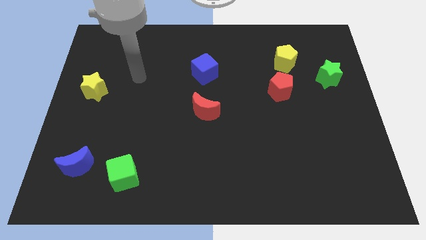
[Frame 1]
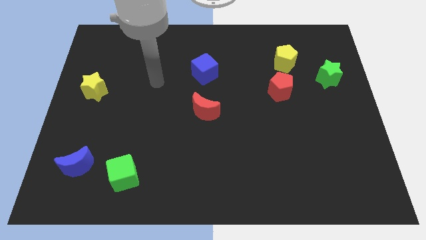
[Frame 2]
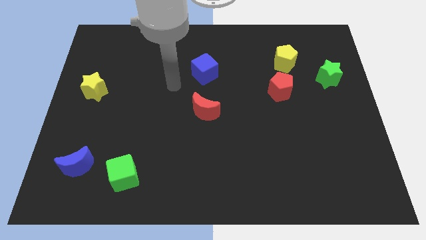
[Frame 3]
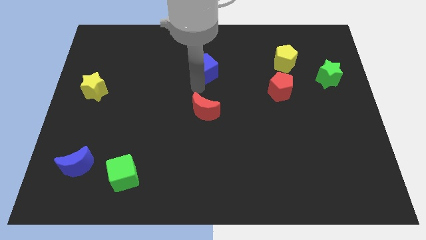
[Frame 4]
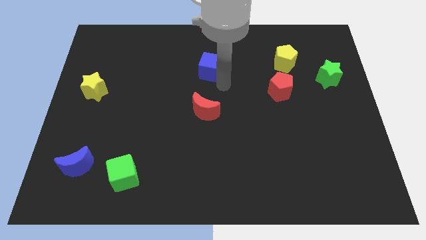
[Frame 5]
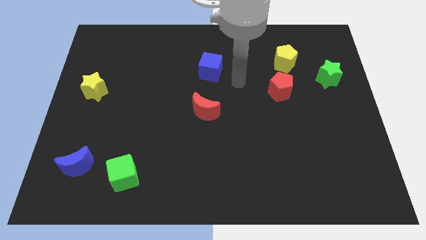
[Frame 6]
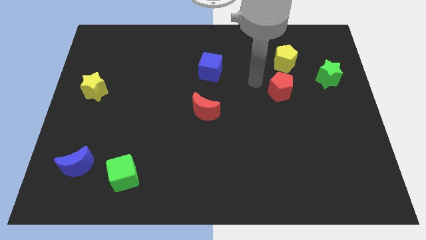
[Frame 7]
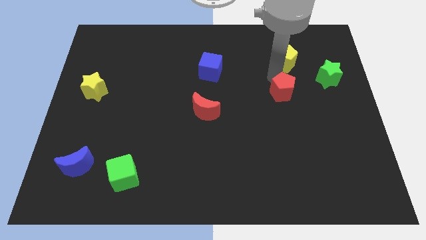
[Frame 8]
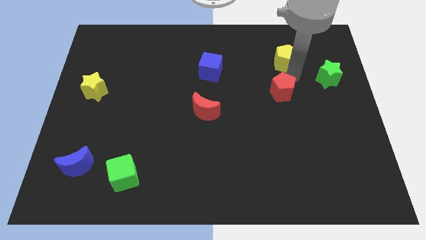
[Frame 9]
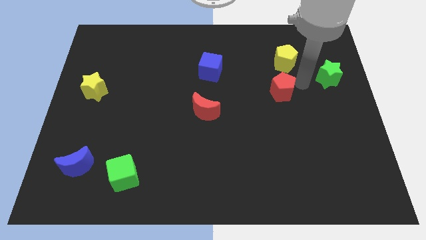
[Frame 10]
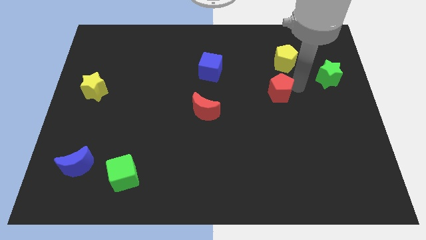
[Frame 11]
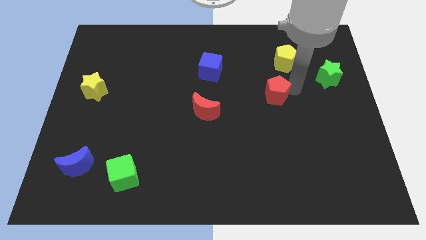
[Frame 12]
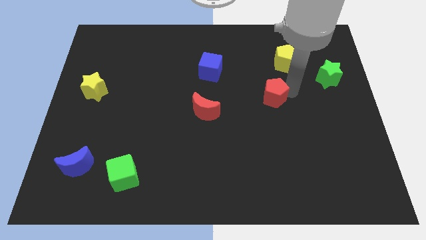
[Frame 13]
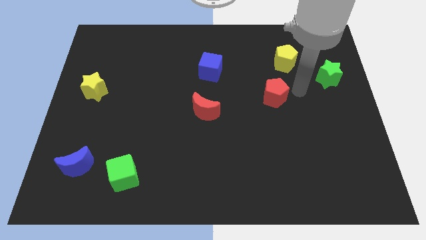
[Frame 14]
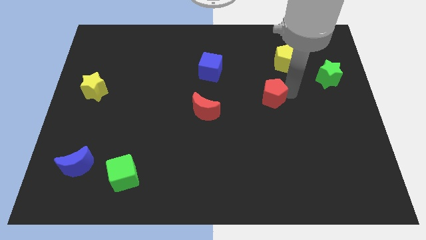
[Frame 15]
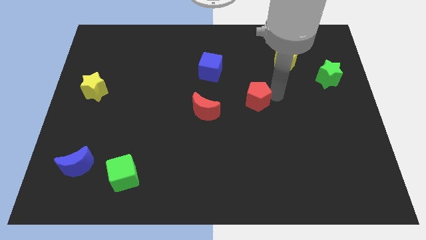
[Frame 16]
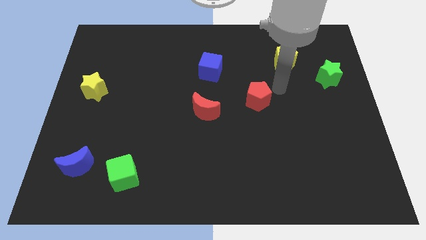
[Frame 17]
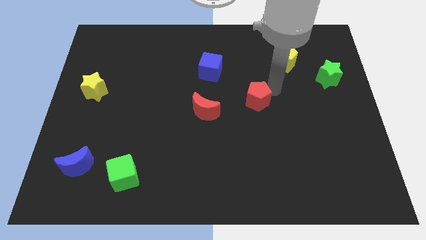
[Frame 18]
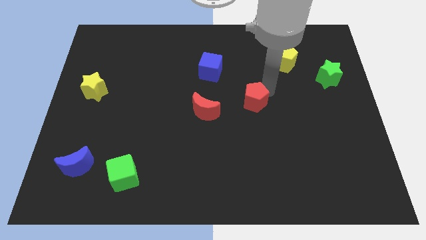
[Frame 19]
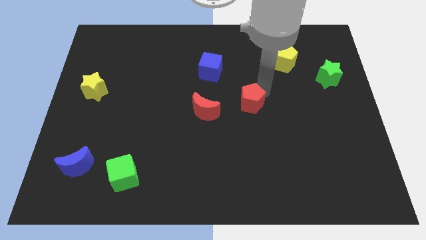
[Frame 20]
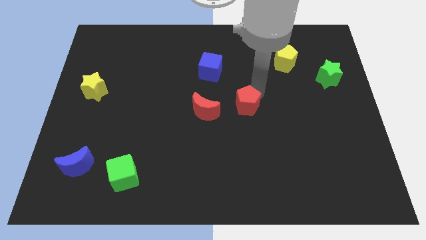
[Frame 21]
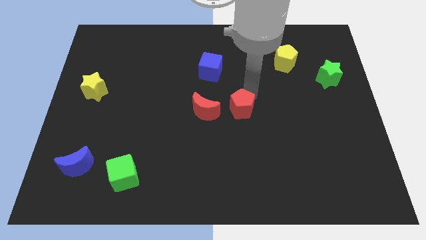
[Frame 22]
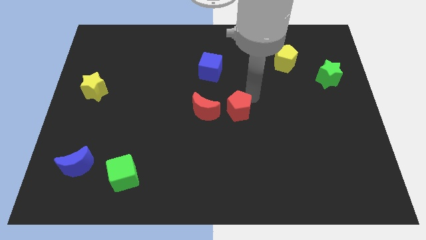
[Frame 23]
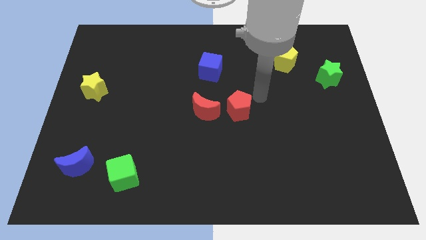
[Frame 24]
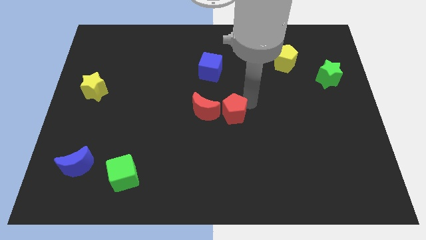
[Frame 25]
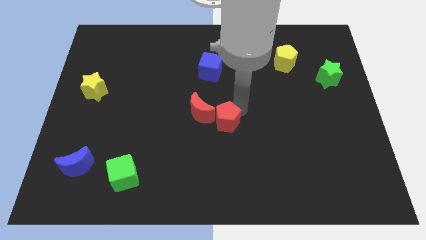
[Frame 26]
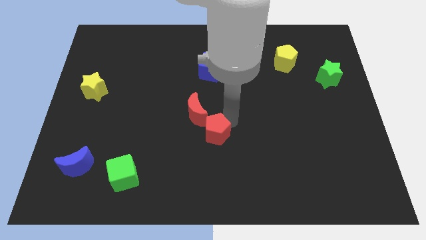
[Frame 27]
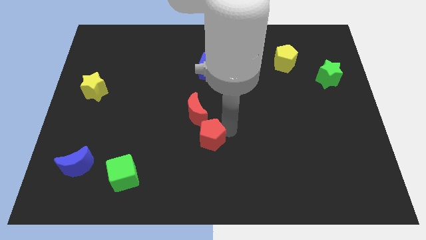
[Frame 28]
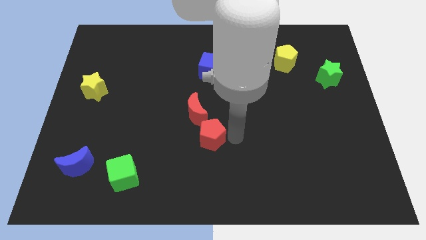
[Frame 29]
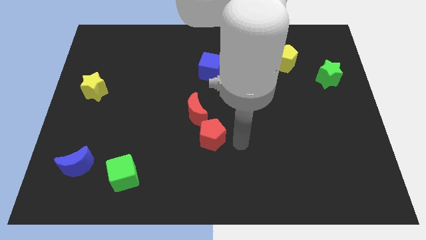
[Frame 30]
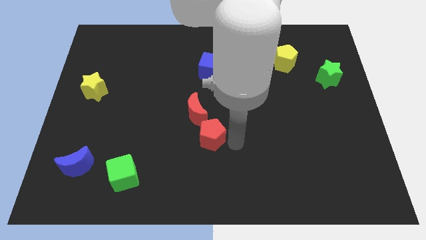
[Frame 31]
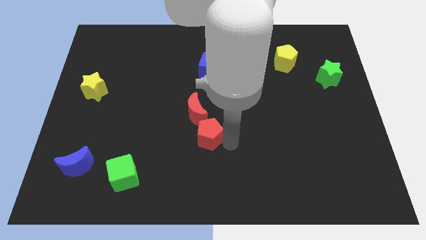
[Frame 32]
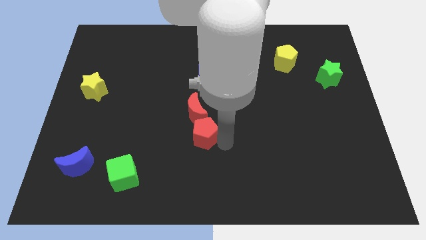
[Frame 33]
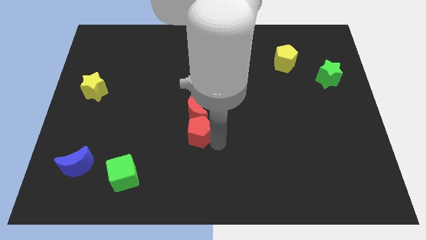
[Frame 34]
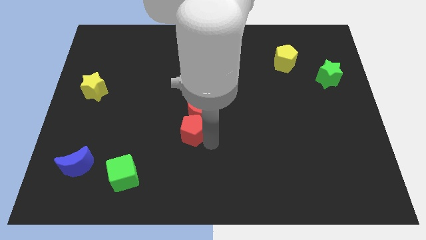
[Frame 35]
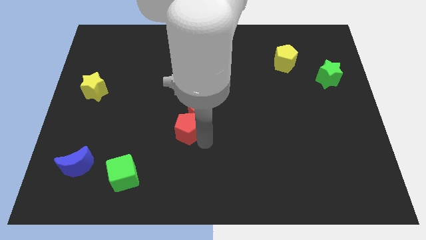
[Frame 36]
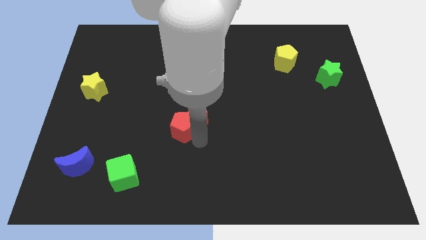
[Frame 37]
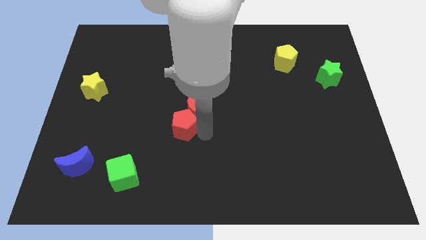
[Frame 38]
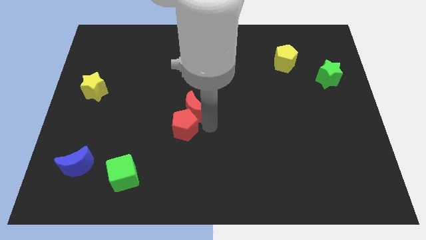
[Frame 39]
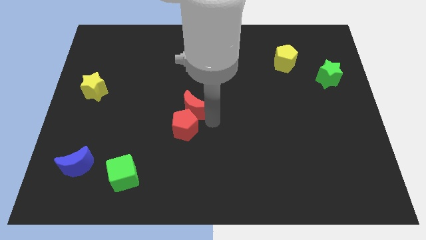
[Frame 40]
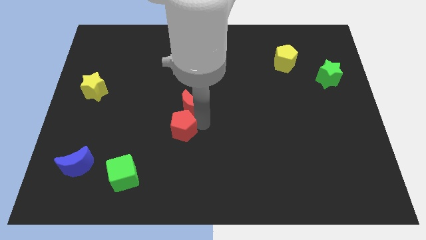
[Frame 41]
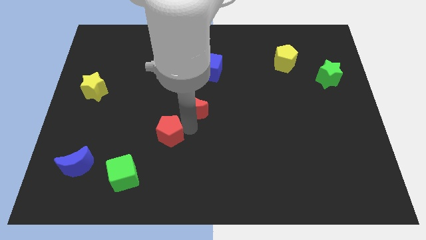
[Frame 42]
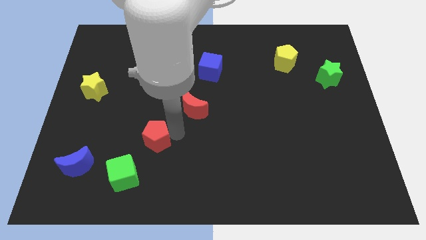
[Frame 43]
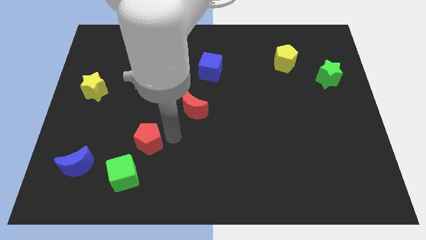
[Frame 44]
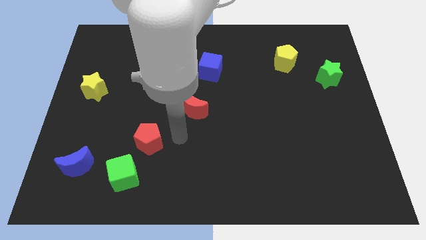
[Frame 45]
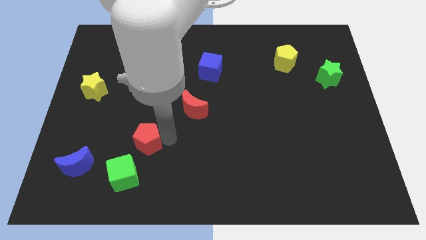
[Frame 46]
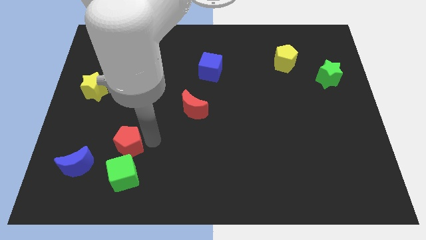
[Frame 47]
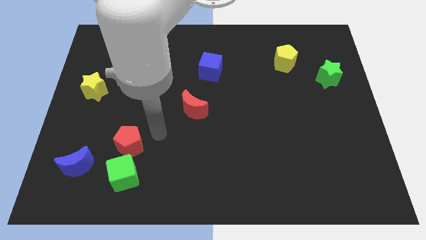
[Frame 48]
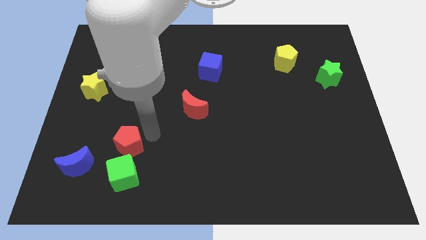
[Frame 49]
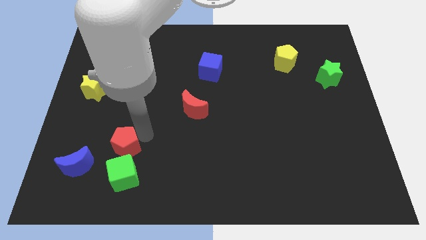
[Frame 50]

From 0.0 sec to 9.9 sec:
move the red pentagon to the top left of the green cube

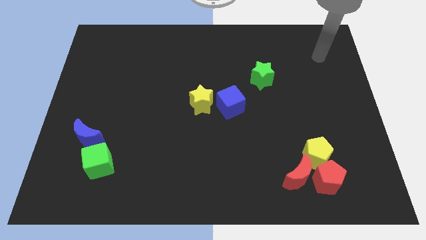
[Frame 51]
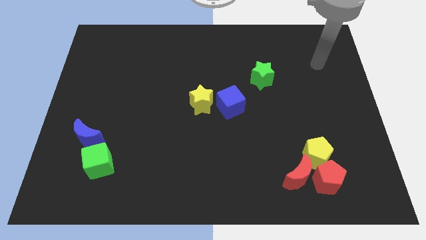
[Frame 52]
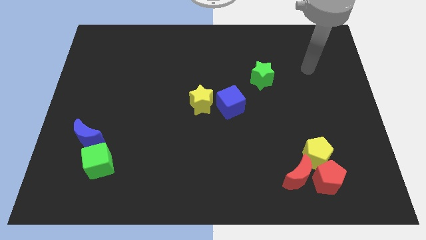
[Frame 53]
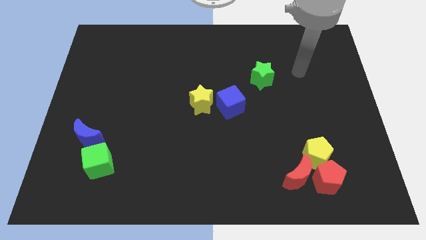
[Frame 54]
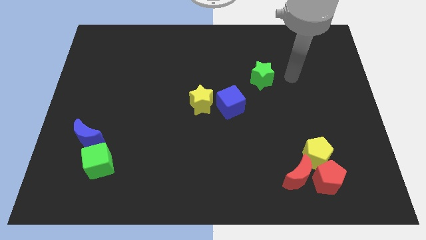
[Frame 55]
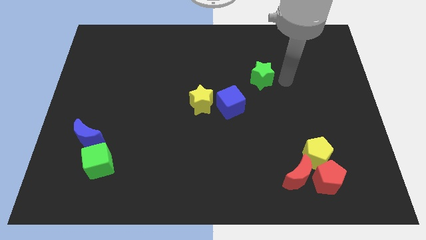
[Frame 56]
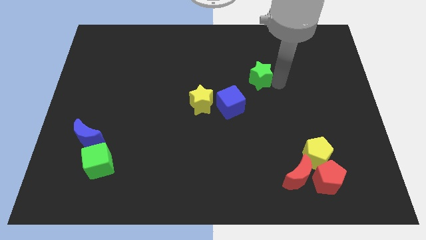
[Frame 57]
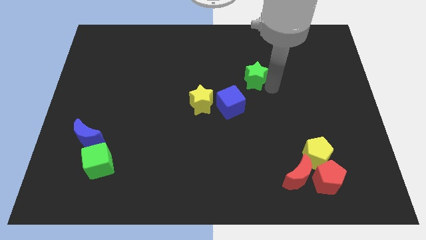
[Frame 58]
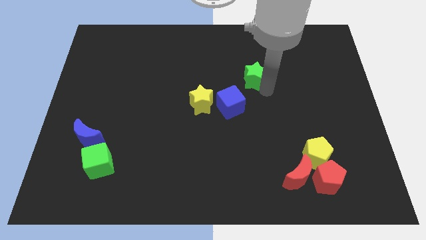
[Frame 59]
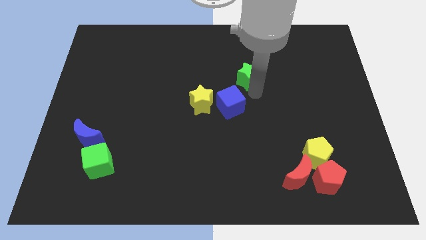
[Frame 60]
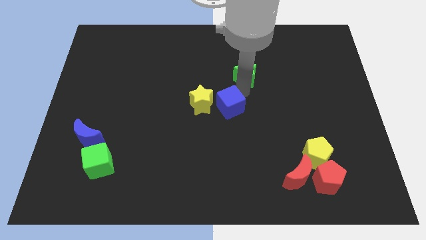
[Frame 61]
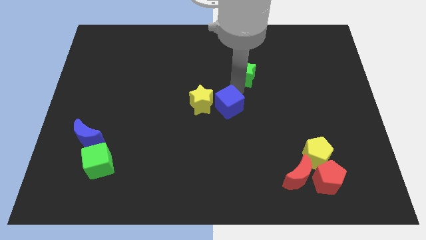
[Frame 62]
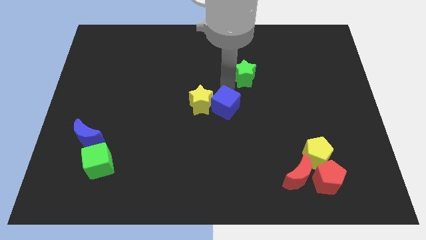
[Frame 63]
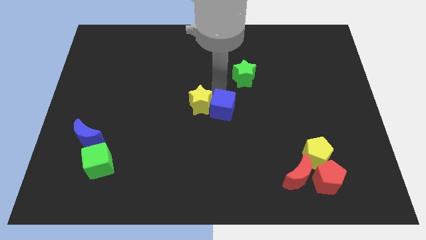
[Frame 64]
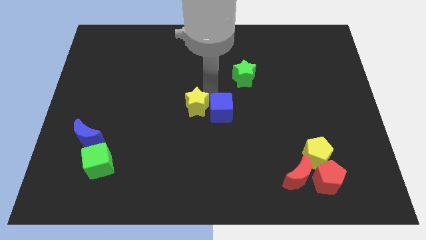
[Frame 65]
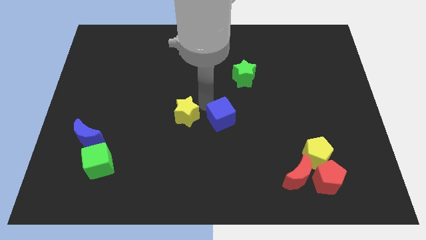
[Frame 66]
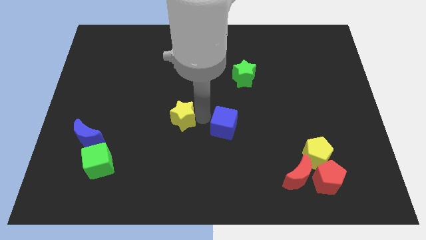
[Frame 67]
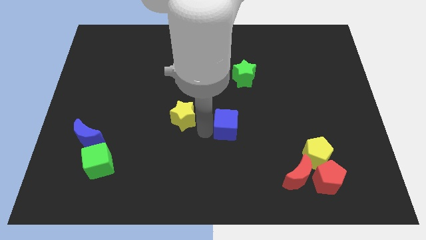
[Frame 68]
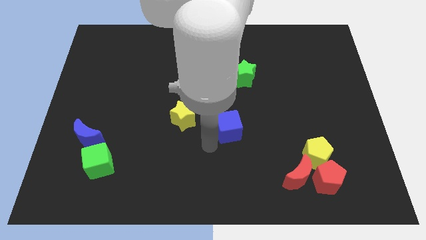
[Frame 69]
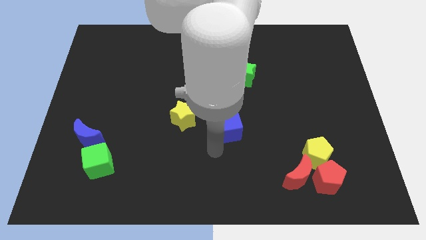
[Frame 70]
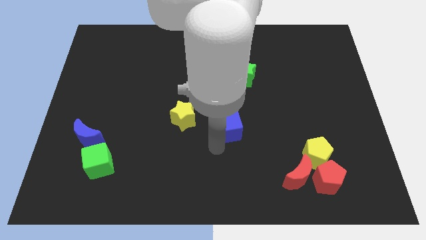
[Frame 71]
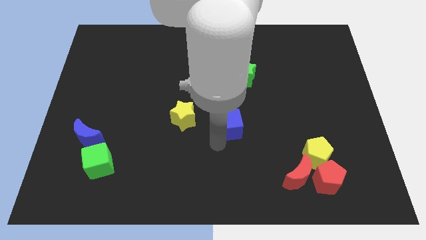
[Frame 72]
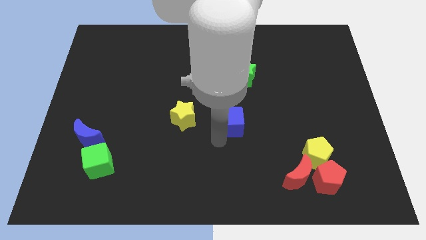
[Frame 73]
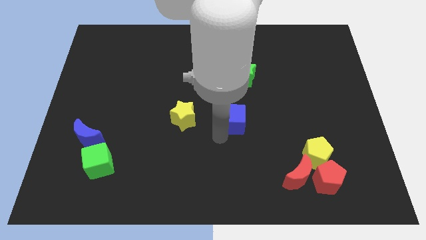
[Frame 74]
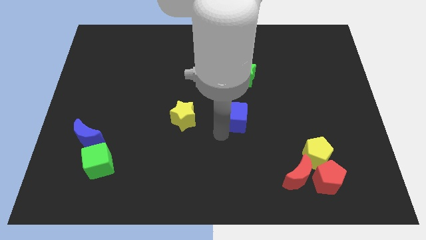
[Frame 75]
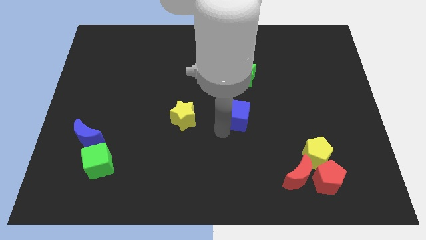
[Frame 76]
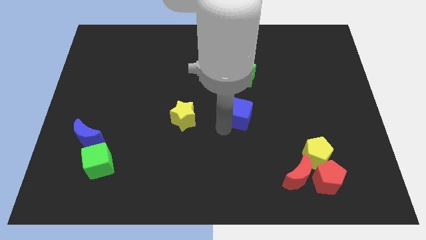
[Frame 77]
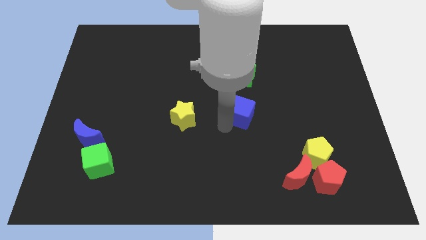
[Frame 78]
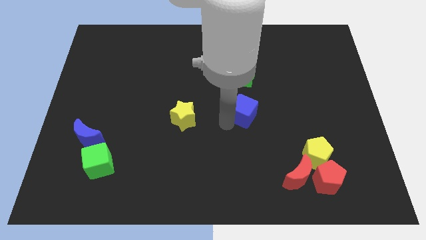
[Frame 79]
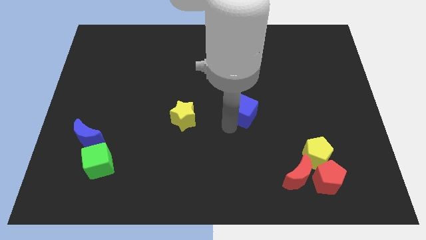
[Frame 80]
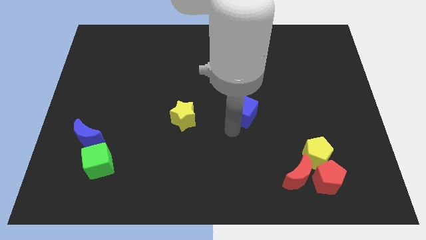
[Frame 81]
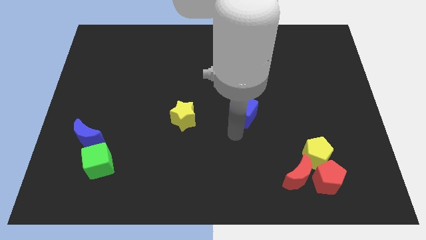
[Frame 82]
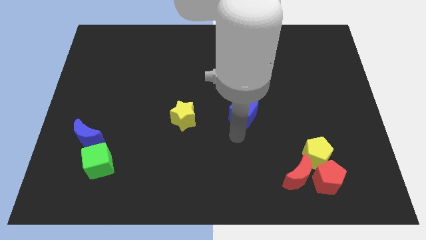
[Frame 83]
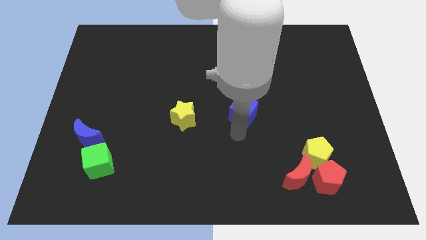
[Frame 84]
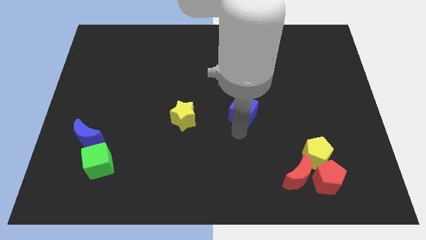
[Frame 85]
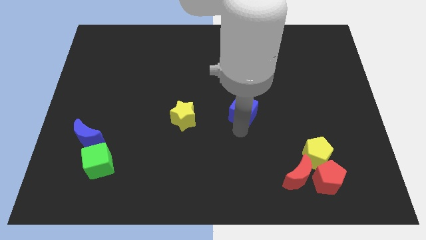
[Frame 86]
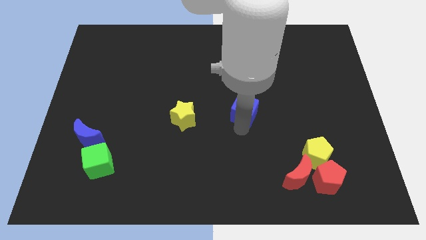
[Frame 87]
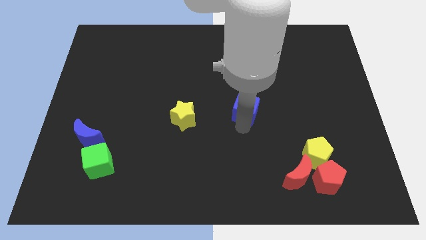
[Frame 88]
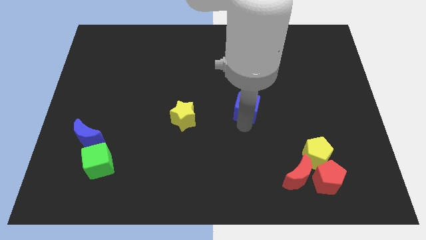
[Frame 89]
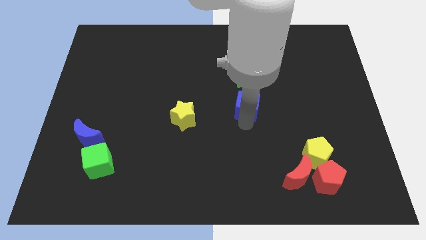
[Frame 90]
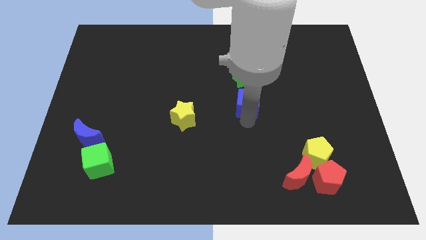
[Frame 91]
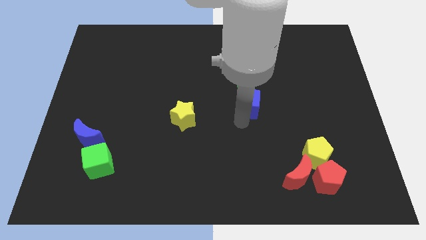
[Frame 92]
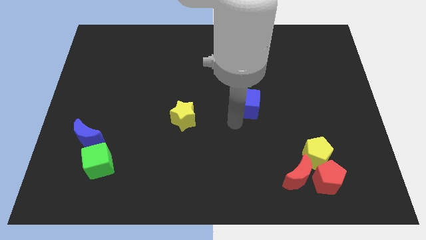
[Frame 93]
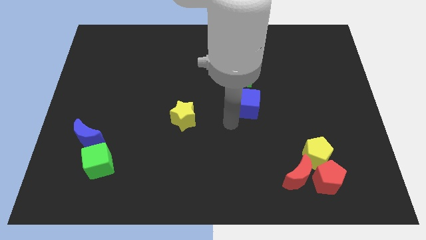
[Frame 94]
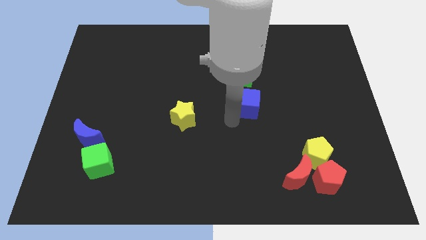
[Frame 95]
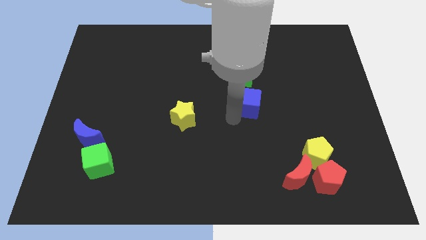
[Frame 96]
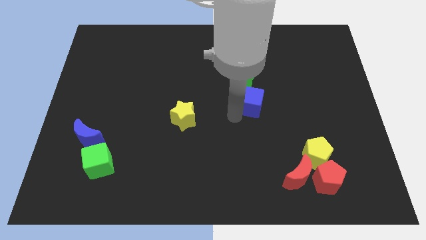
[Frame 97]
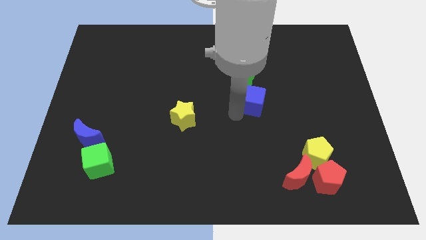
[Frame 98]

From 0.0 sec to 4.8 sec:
push the blue cube diagonally down and to the right of the green star
